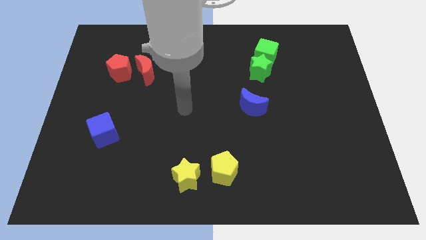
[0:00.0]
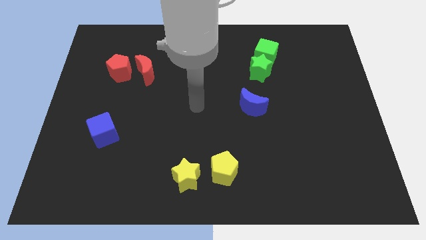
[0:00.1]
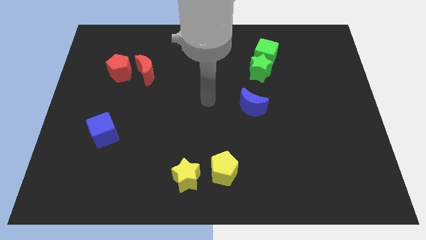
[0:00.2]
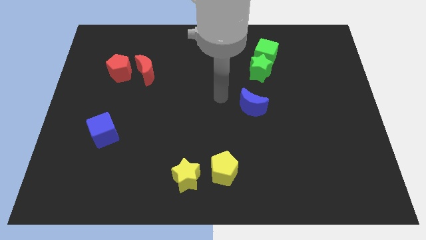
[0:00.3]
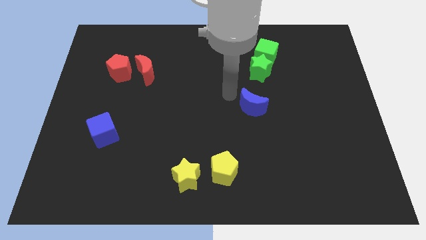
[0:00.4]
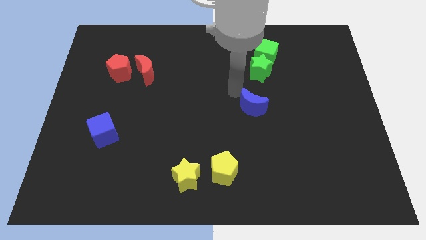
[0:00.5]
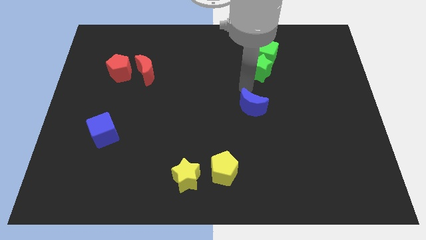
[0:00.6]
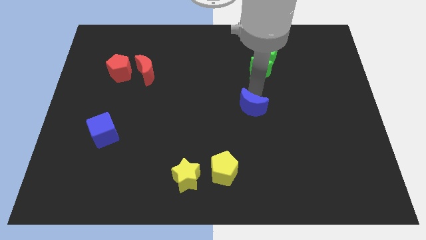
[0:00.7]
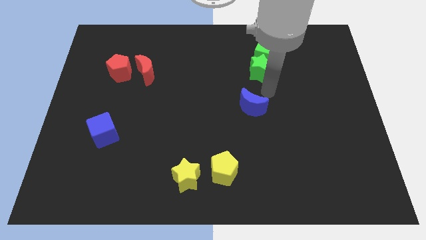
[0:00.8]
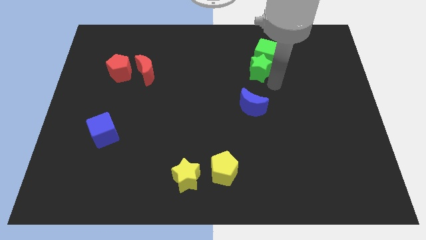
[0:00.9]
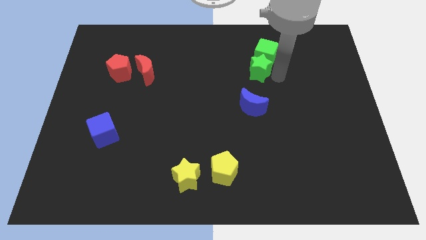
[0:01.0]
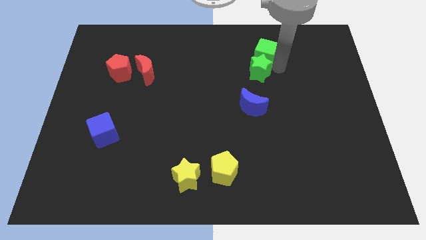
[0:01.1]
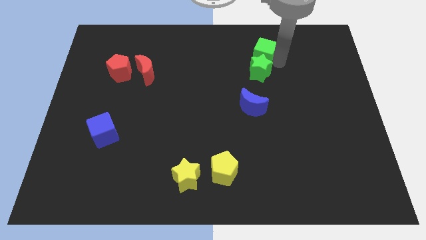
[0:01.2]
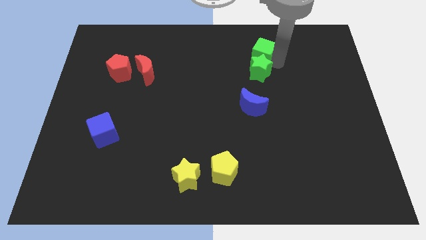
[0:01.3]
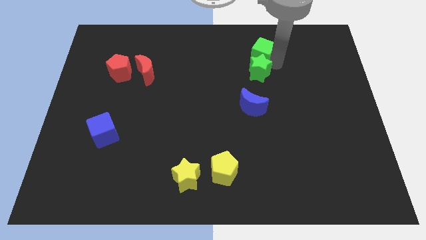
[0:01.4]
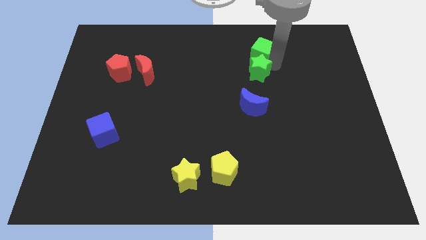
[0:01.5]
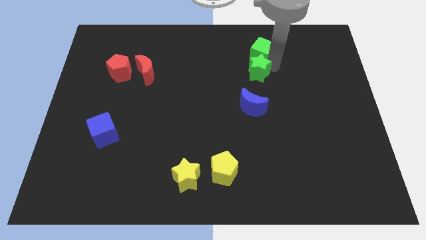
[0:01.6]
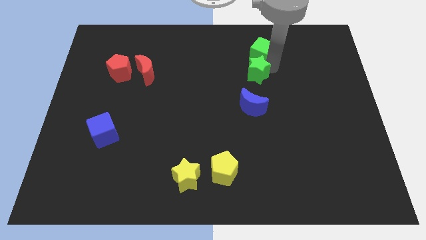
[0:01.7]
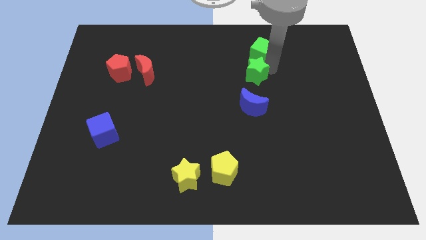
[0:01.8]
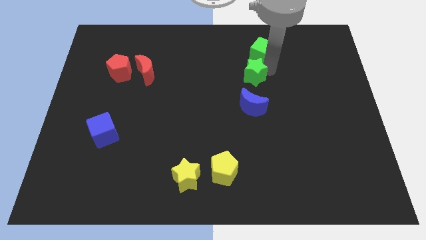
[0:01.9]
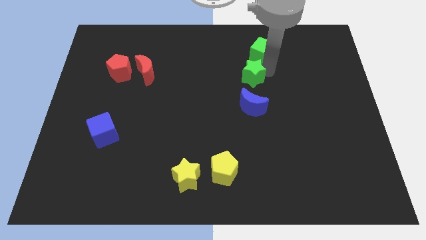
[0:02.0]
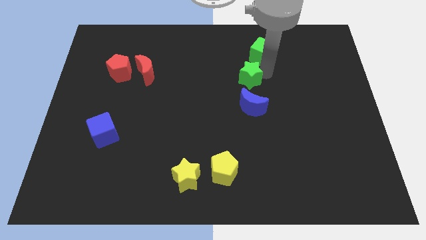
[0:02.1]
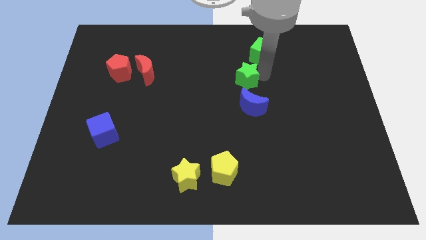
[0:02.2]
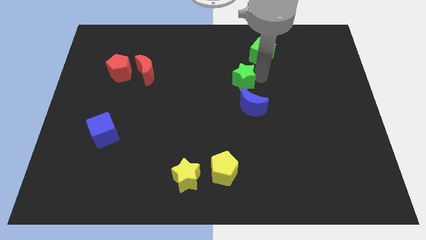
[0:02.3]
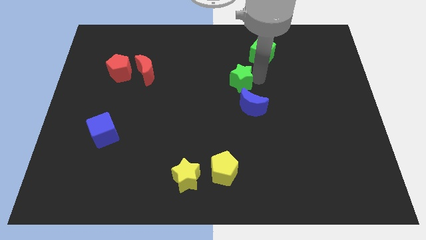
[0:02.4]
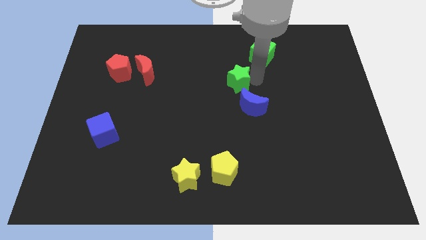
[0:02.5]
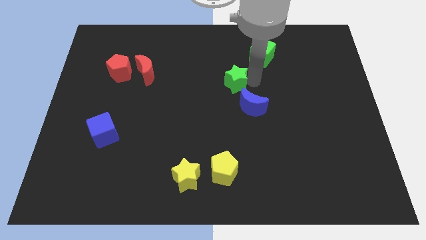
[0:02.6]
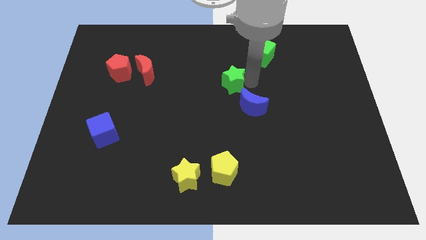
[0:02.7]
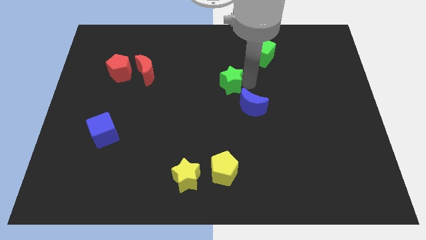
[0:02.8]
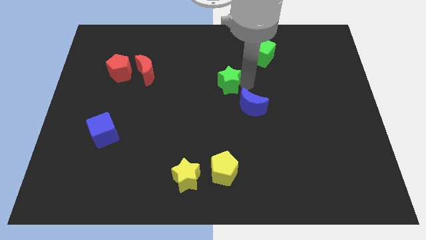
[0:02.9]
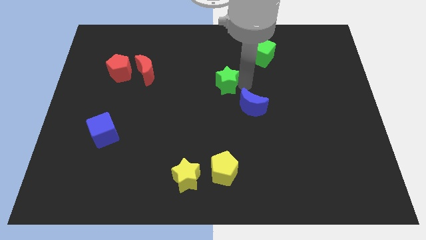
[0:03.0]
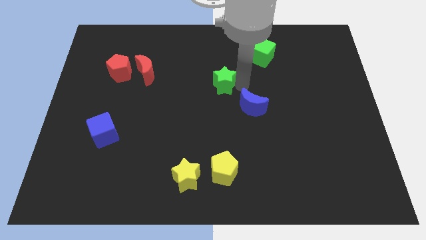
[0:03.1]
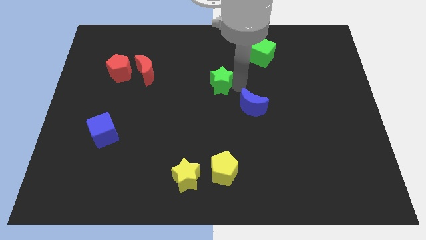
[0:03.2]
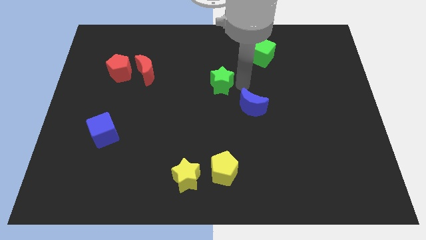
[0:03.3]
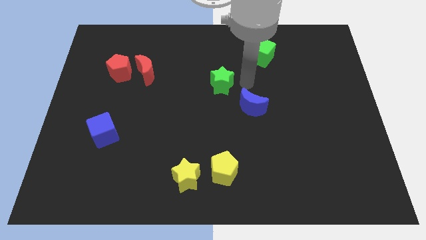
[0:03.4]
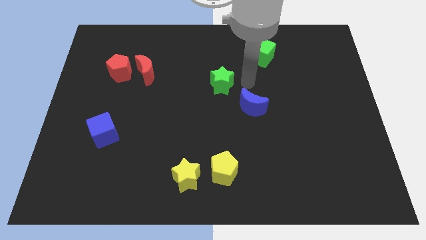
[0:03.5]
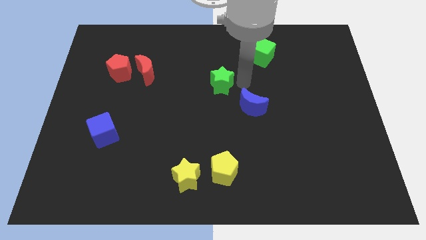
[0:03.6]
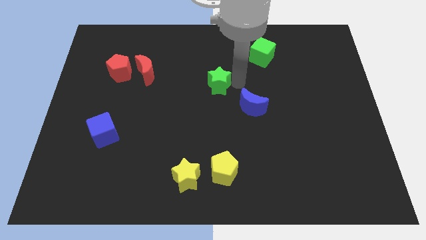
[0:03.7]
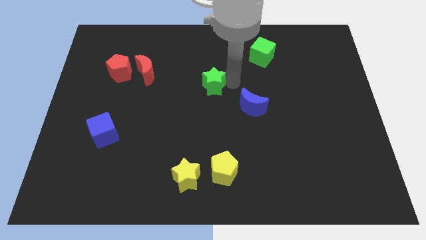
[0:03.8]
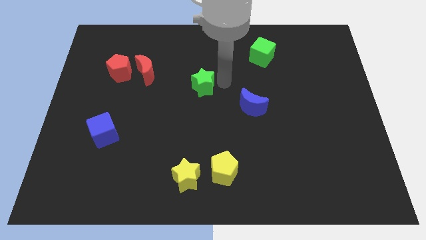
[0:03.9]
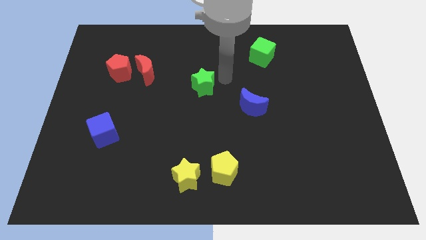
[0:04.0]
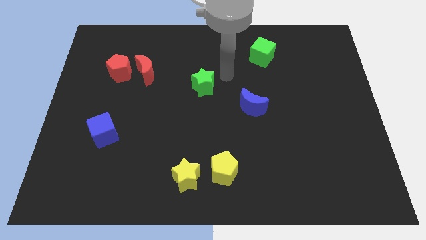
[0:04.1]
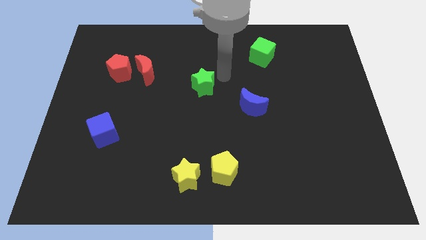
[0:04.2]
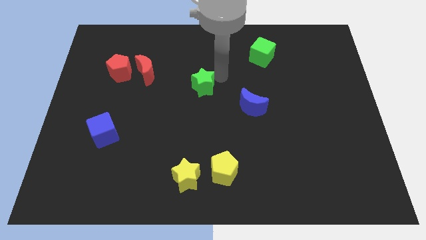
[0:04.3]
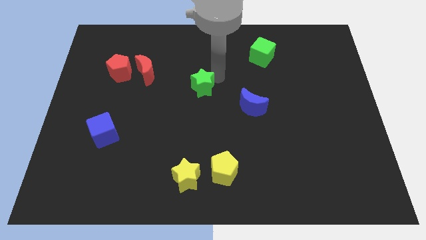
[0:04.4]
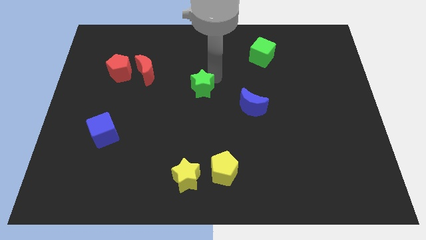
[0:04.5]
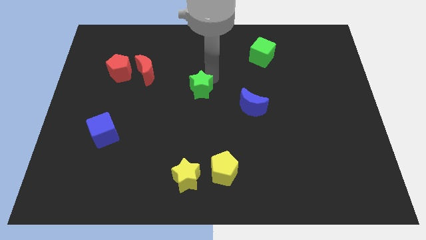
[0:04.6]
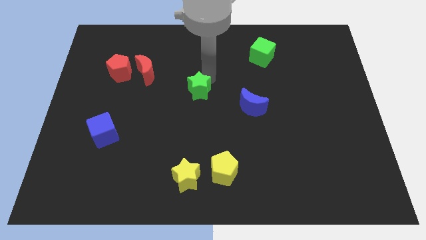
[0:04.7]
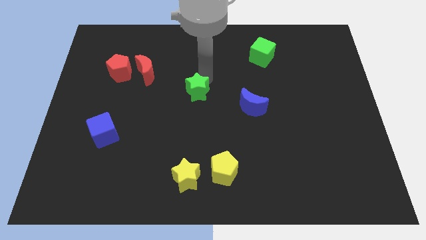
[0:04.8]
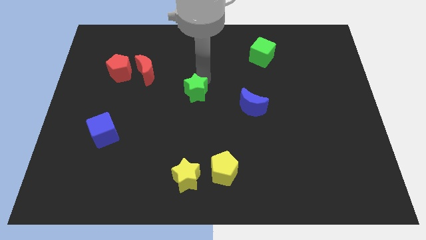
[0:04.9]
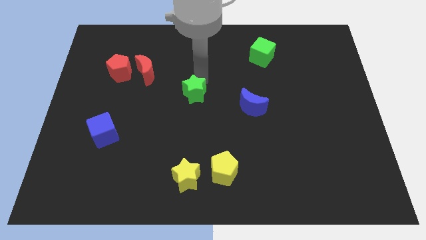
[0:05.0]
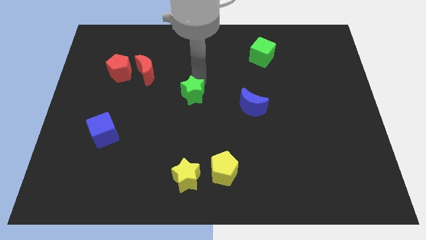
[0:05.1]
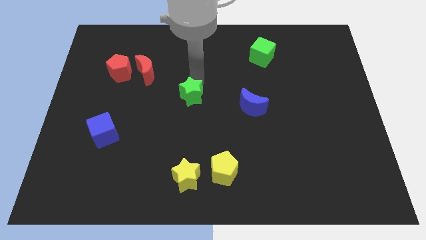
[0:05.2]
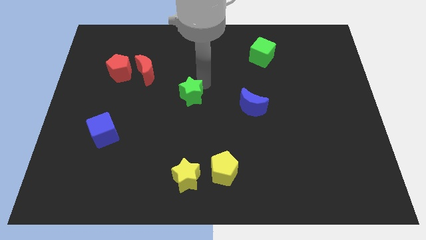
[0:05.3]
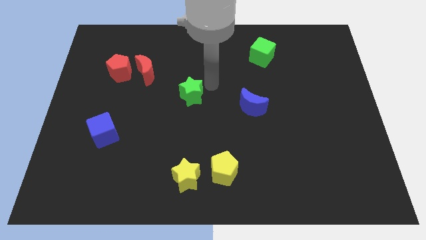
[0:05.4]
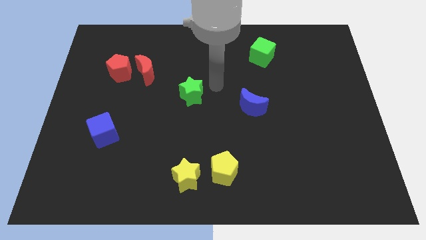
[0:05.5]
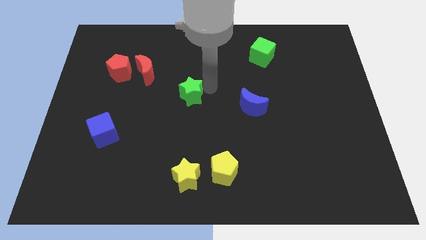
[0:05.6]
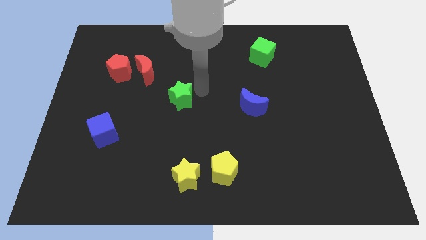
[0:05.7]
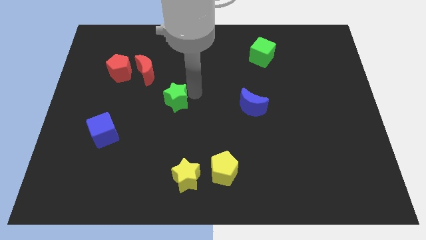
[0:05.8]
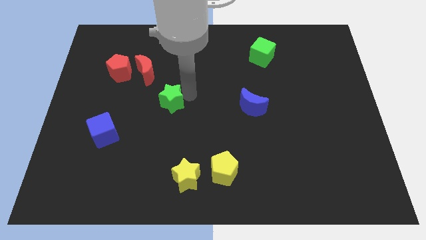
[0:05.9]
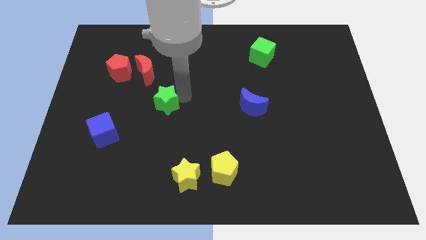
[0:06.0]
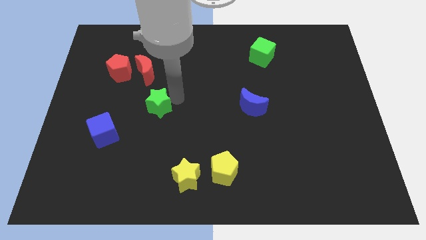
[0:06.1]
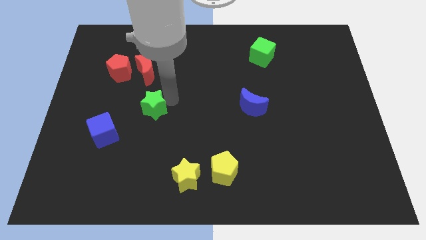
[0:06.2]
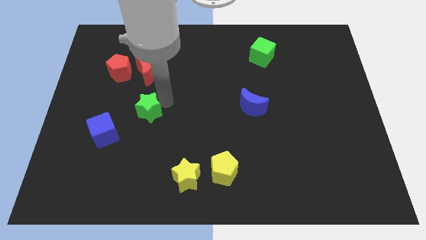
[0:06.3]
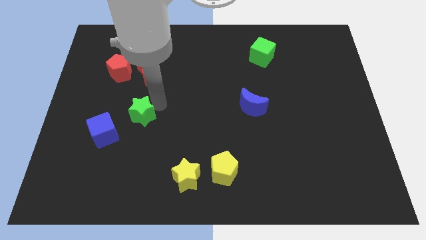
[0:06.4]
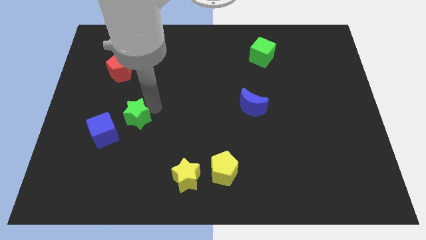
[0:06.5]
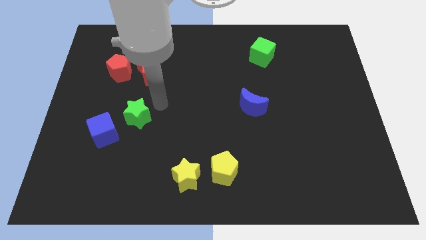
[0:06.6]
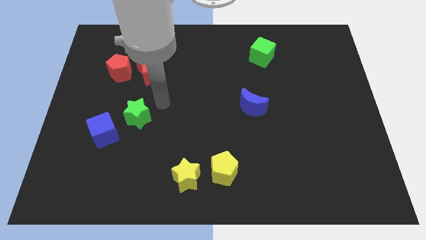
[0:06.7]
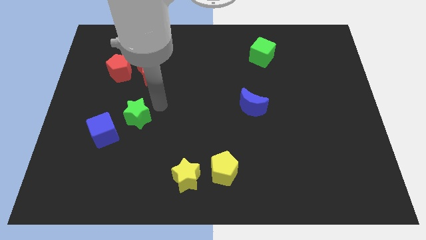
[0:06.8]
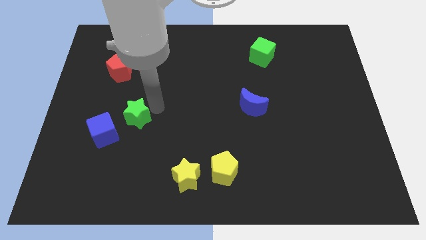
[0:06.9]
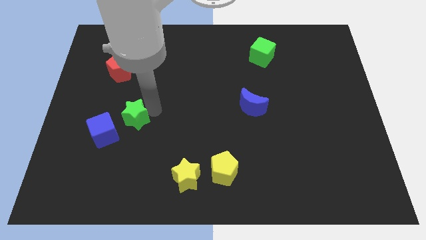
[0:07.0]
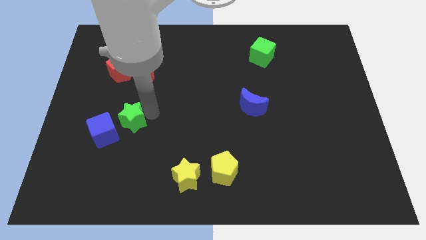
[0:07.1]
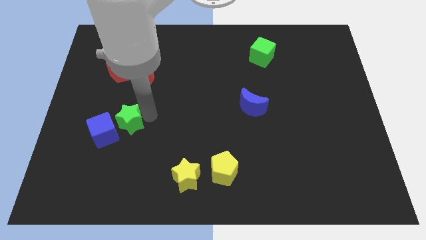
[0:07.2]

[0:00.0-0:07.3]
put the green star close to the blue cube
